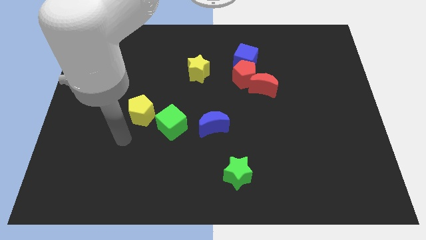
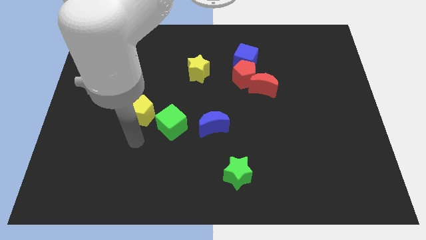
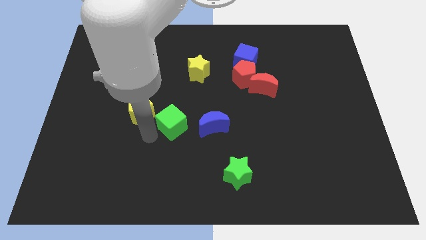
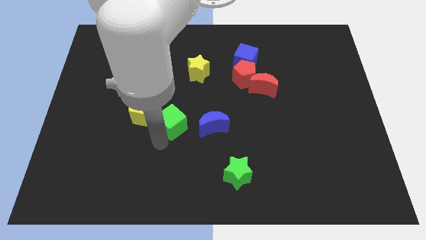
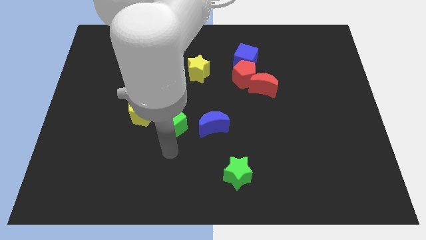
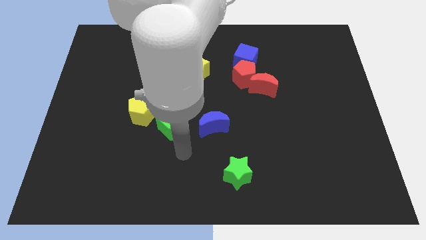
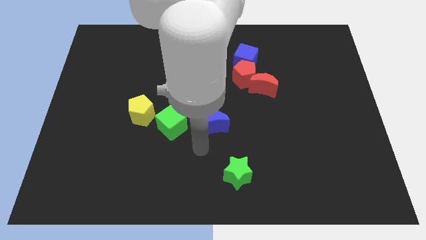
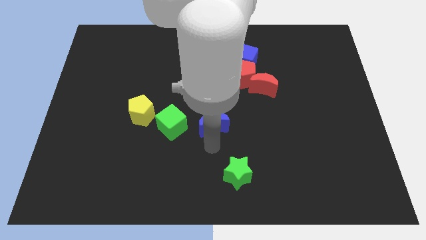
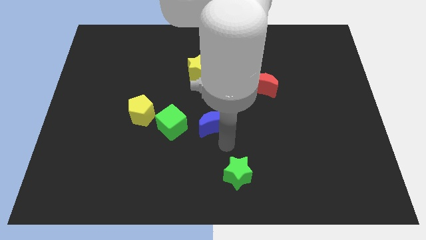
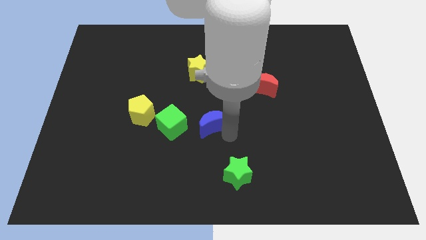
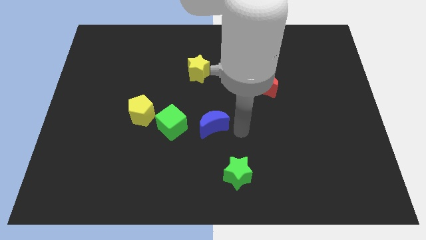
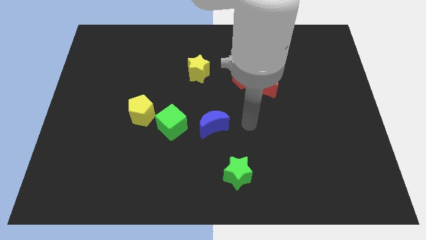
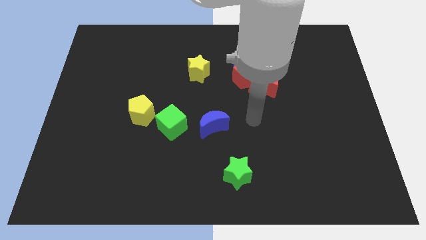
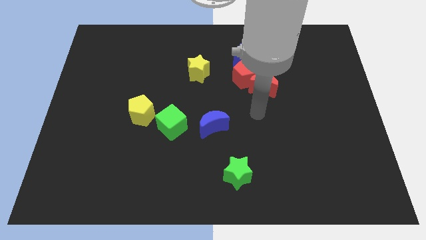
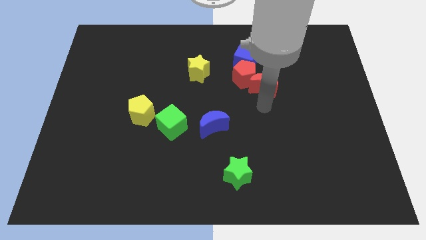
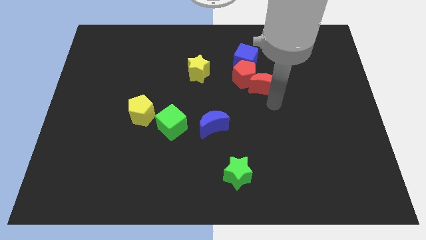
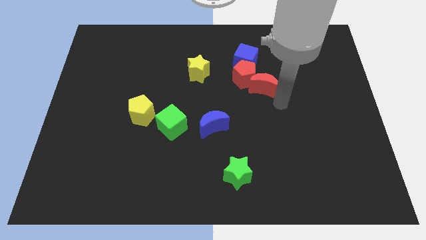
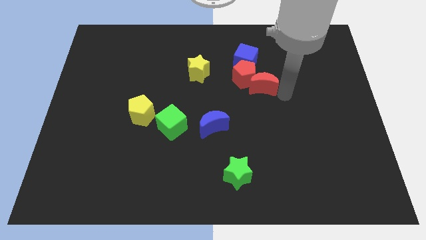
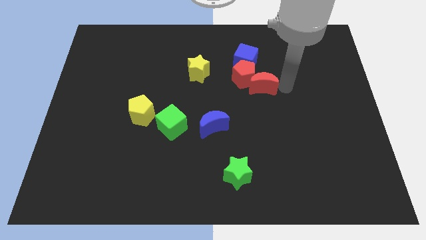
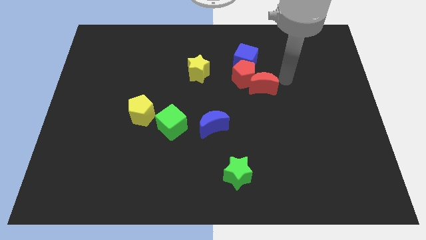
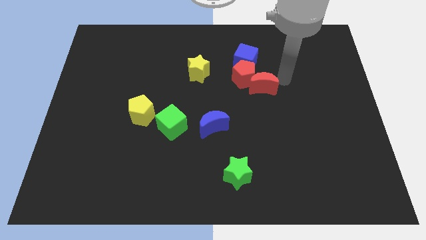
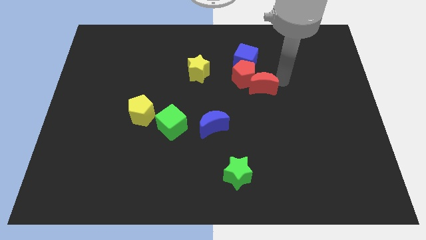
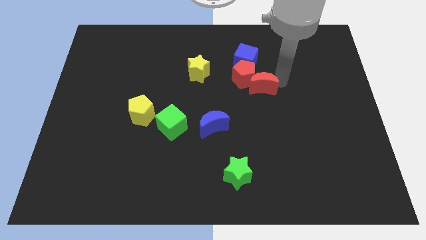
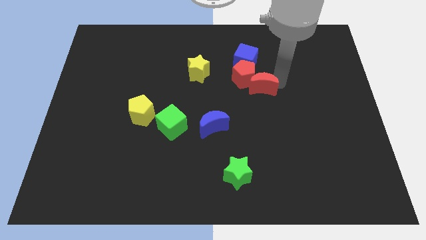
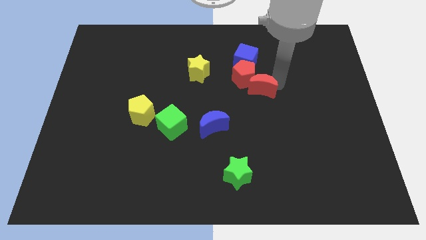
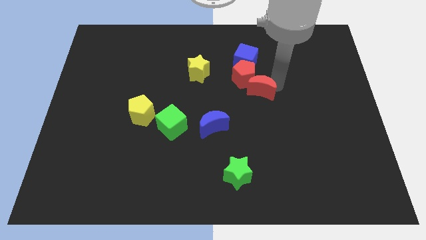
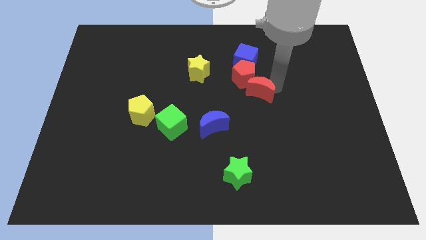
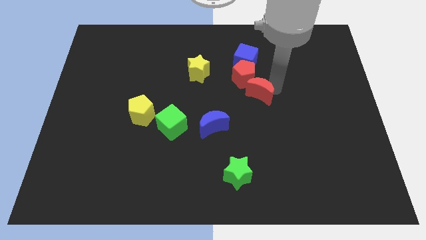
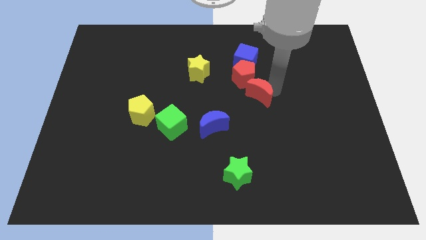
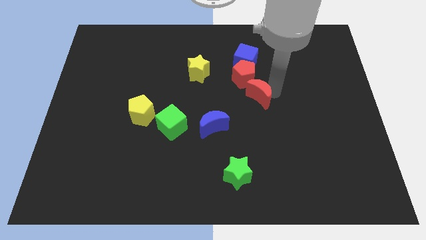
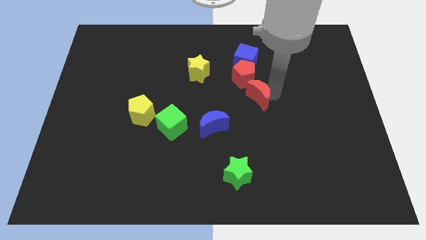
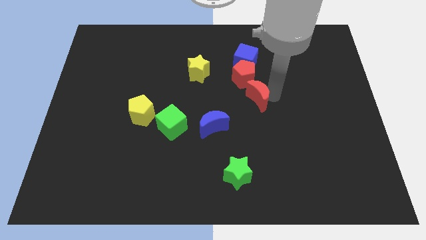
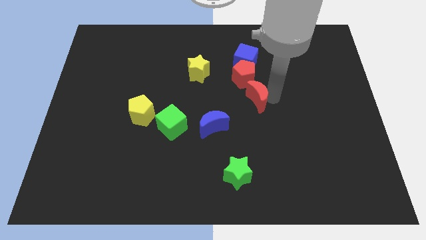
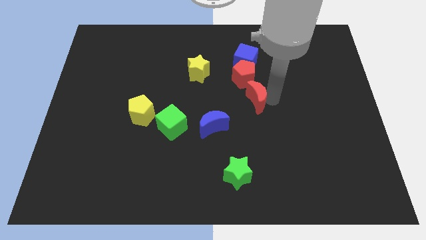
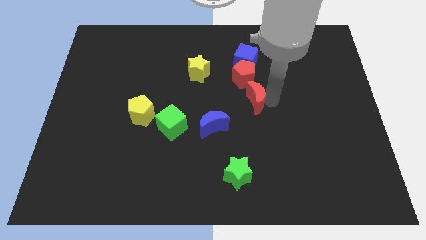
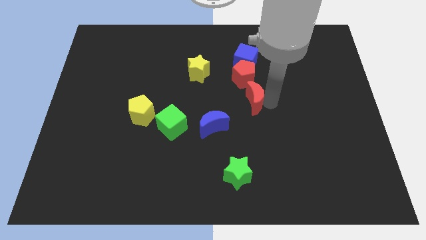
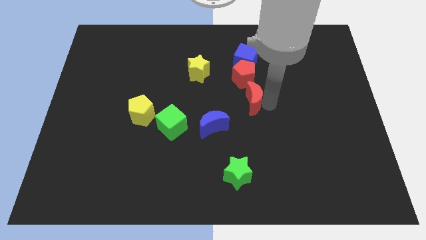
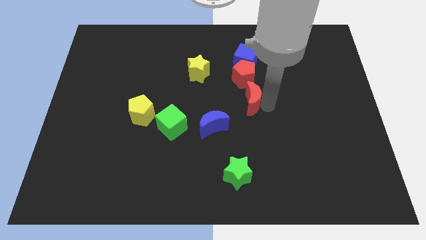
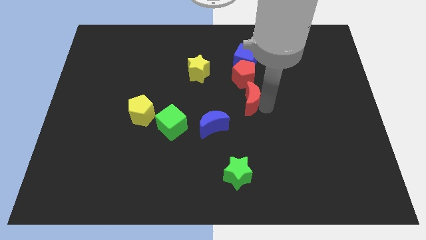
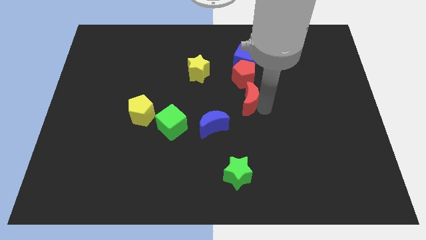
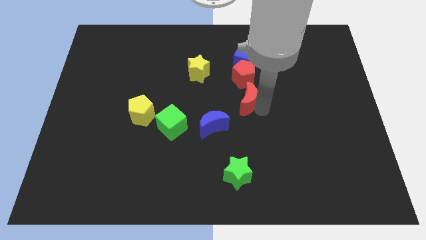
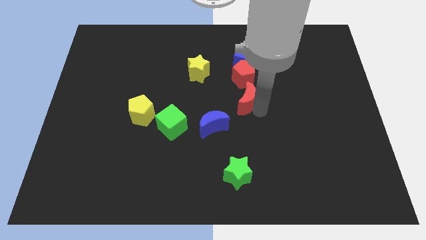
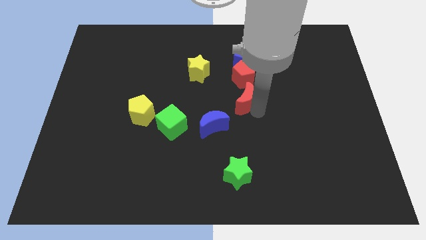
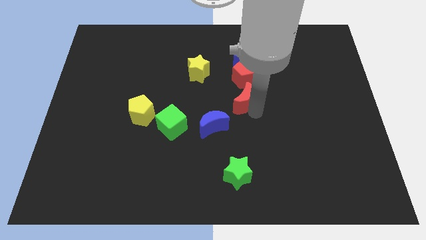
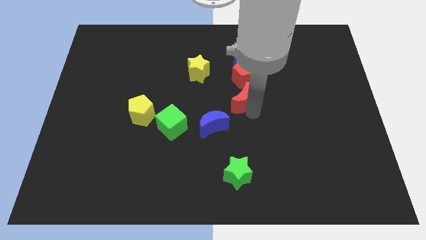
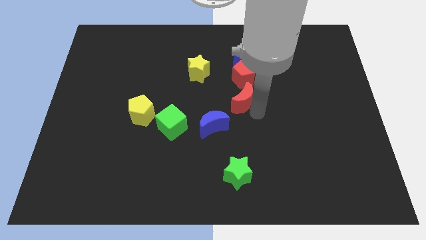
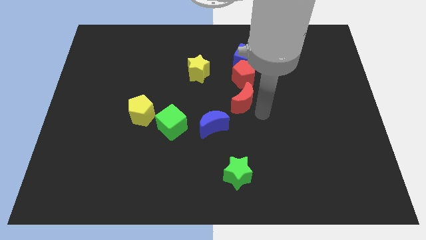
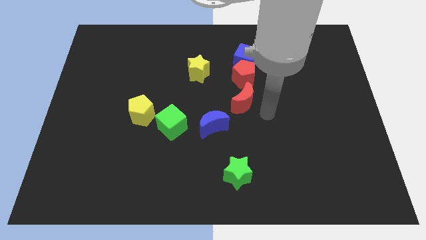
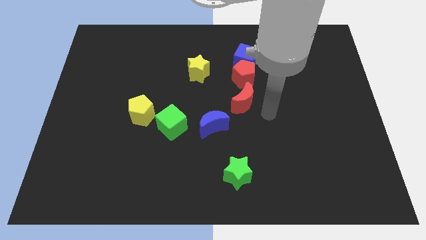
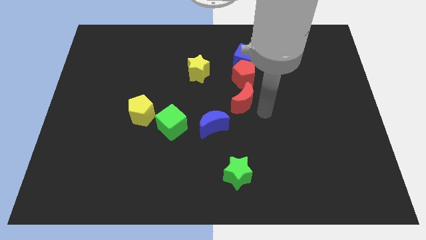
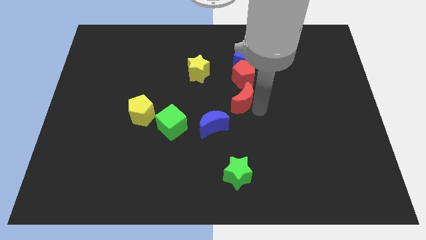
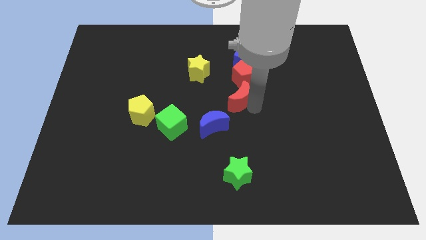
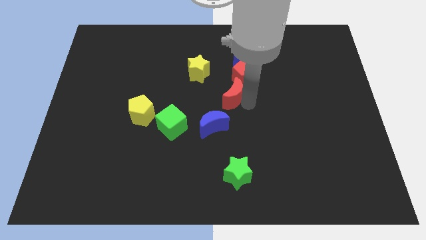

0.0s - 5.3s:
move the red moon left somewhat

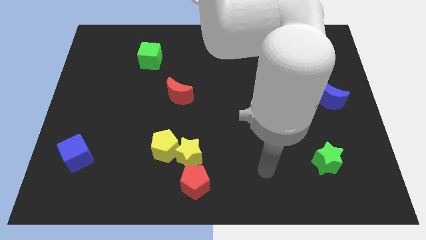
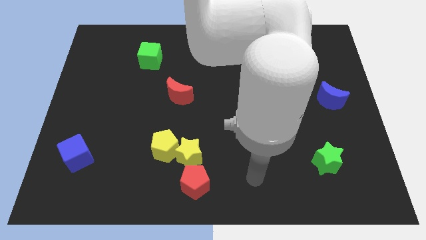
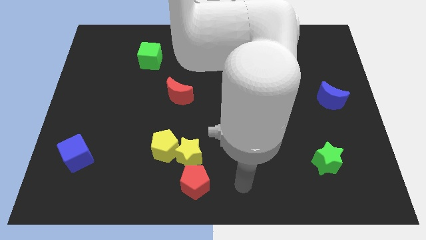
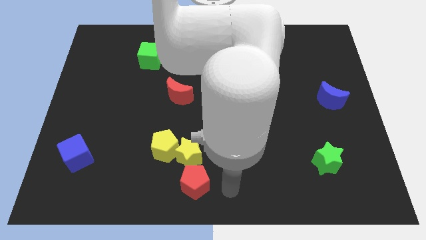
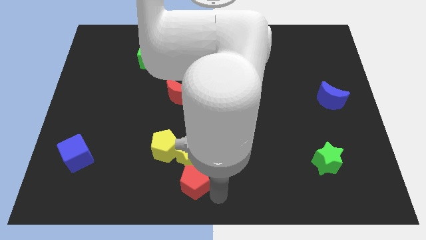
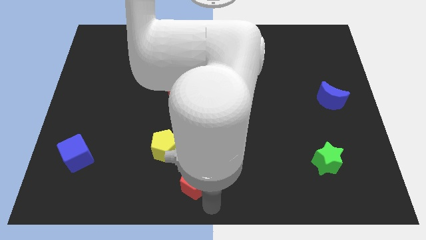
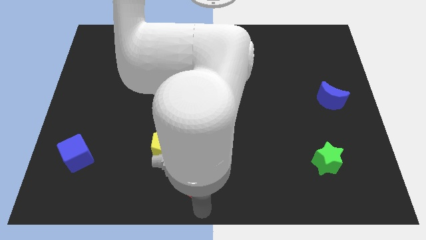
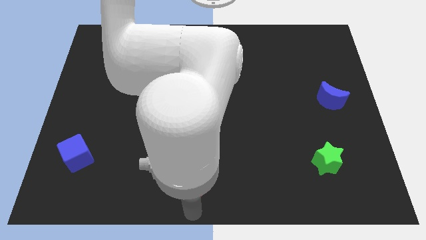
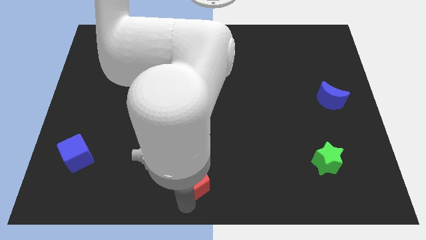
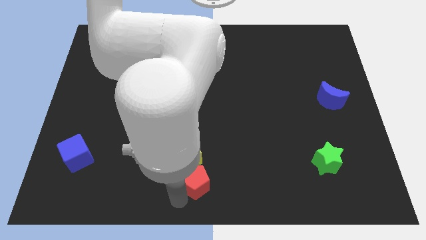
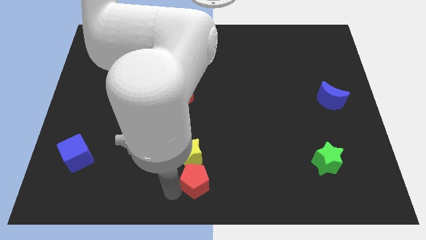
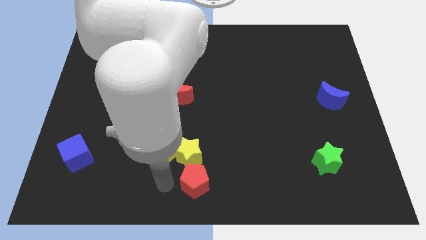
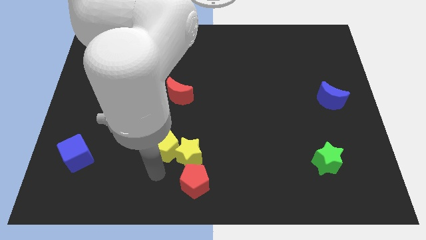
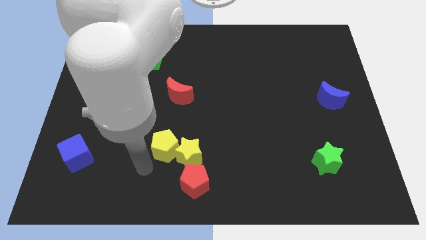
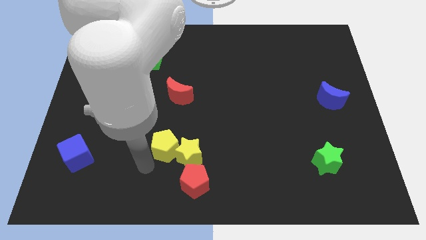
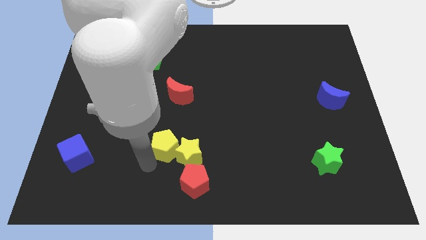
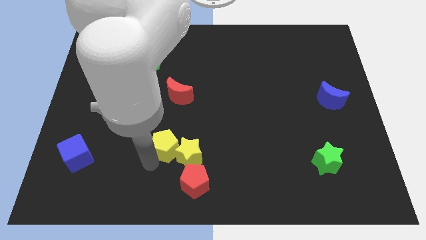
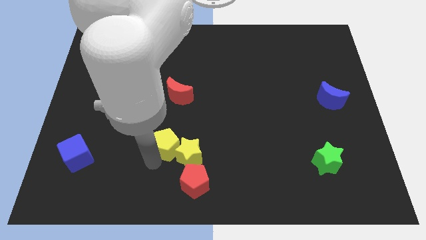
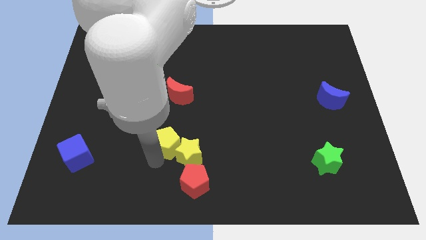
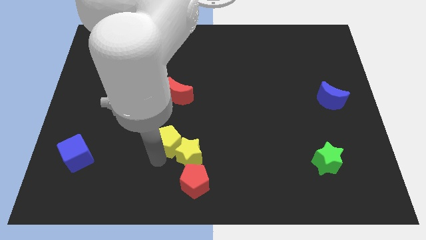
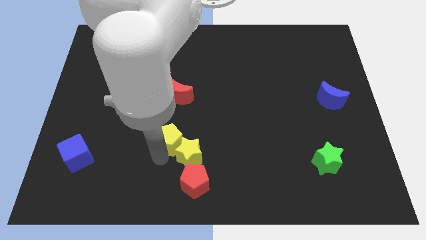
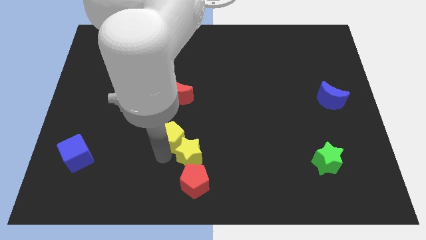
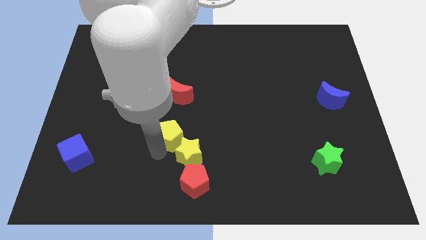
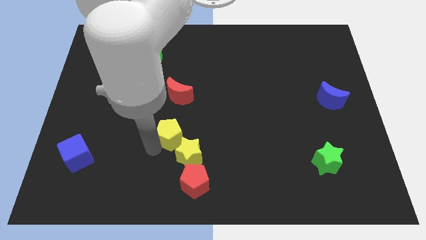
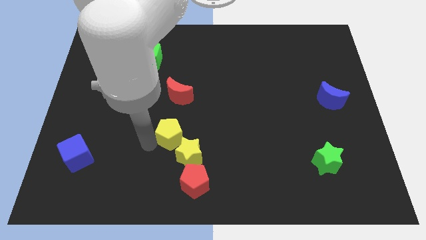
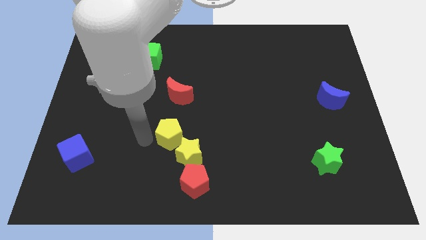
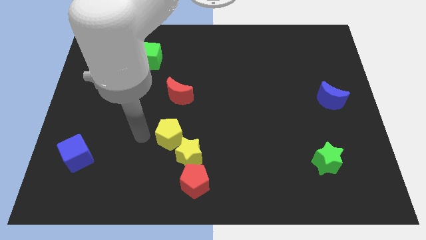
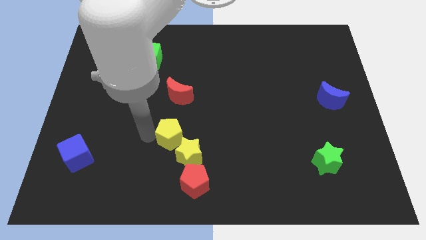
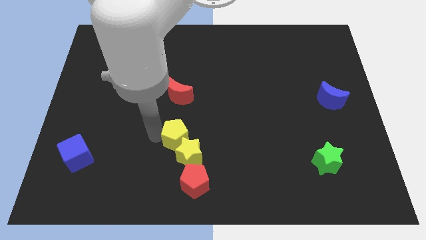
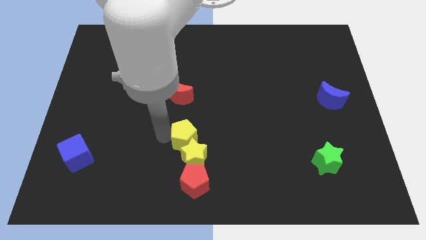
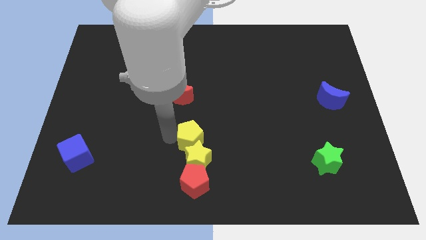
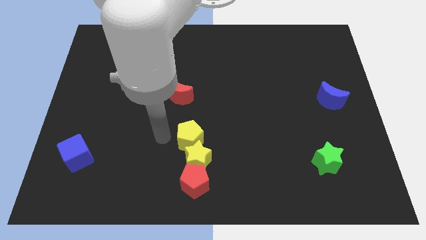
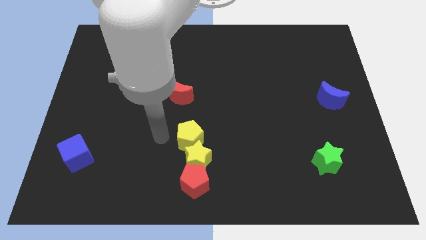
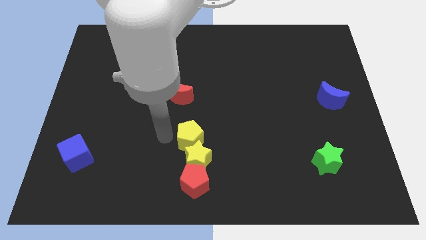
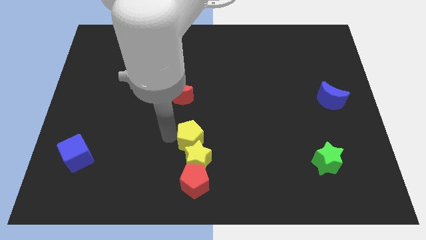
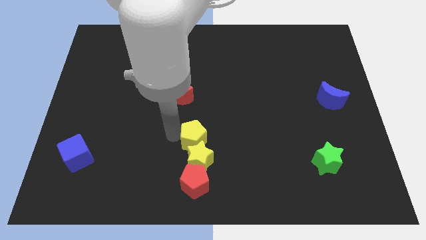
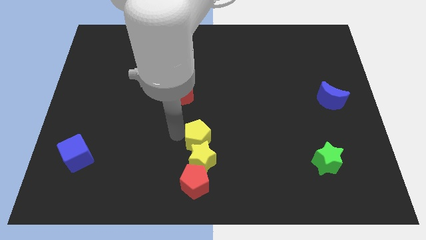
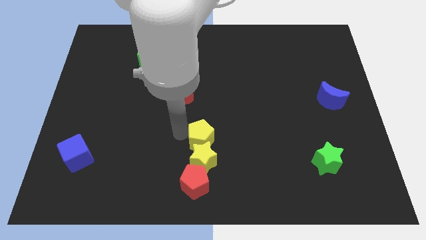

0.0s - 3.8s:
slide the yellow pentagon somewhat to the right
